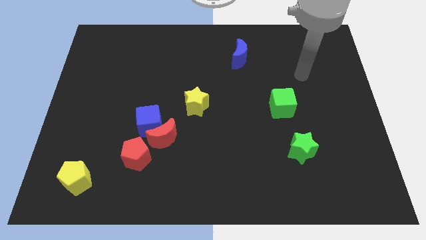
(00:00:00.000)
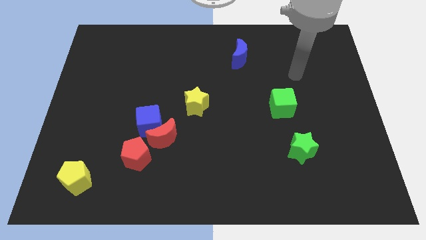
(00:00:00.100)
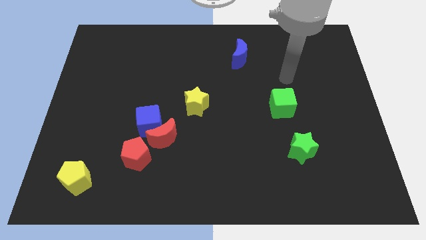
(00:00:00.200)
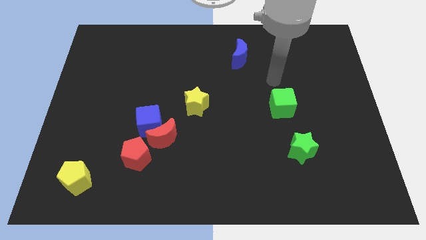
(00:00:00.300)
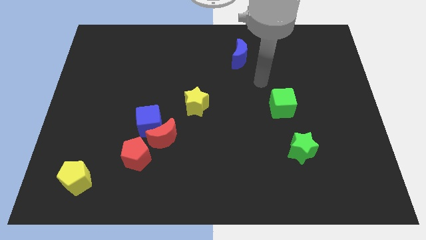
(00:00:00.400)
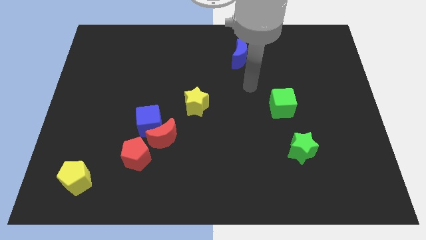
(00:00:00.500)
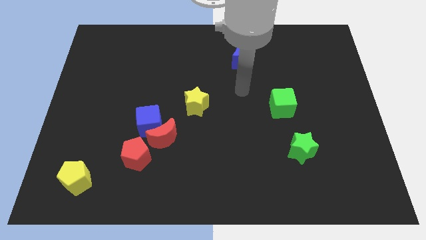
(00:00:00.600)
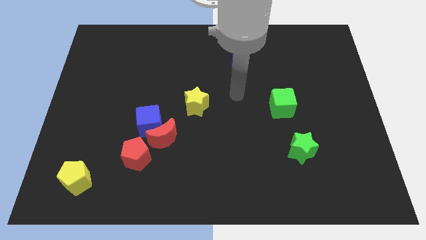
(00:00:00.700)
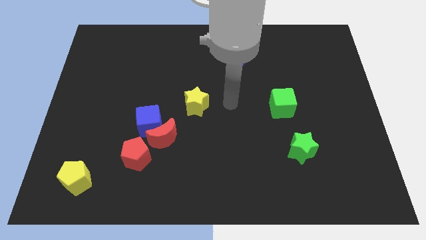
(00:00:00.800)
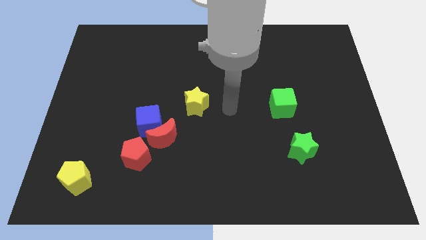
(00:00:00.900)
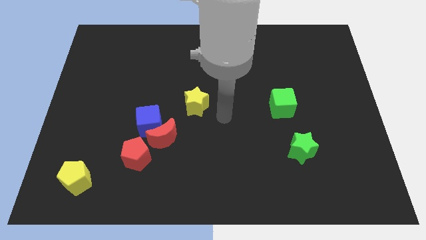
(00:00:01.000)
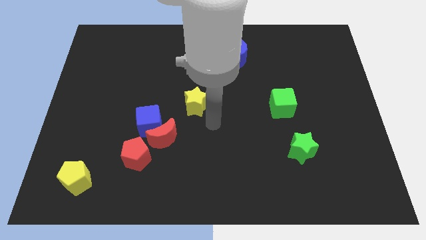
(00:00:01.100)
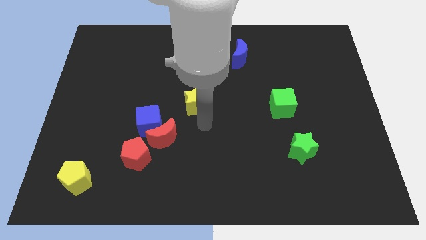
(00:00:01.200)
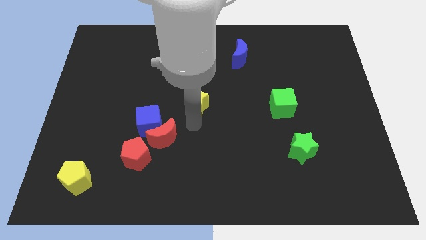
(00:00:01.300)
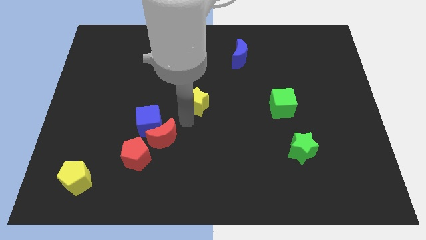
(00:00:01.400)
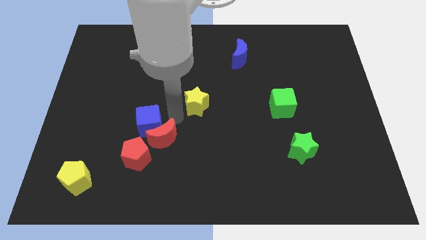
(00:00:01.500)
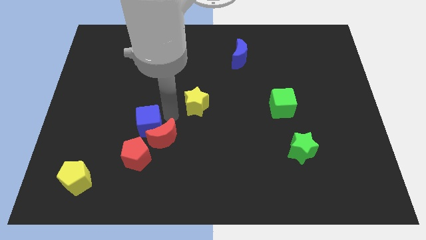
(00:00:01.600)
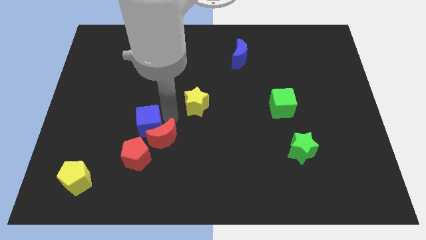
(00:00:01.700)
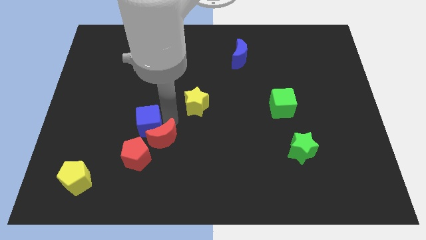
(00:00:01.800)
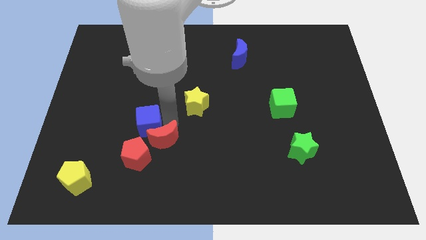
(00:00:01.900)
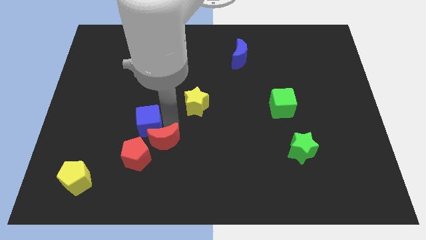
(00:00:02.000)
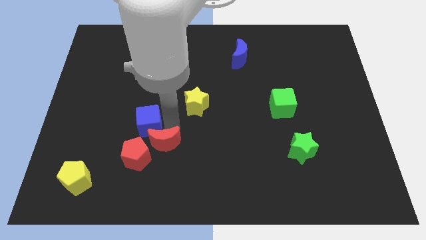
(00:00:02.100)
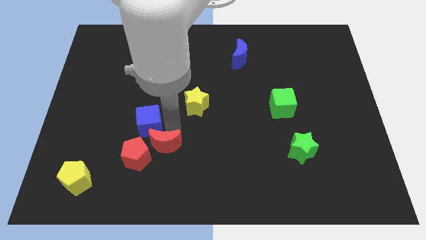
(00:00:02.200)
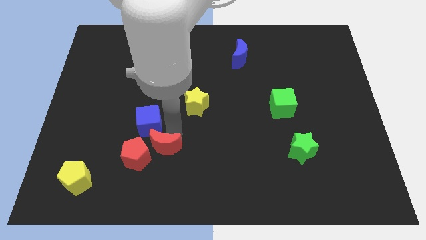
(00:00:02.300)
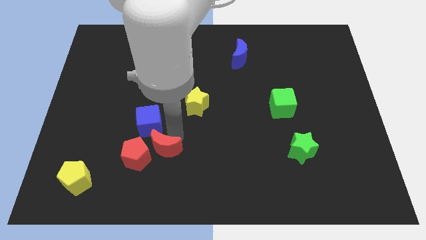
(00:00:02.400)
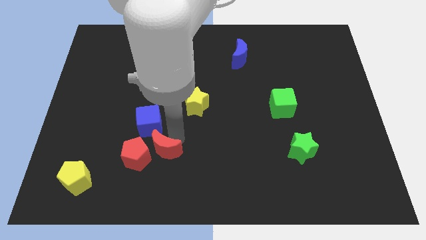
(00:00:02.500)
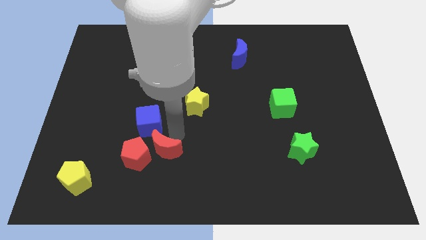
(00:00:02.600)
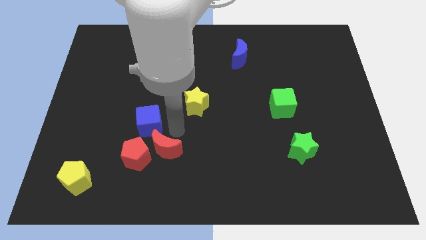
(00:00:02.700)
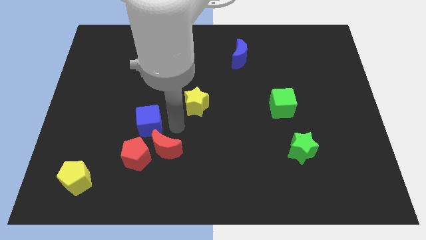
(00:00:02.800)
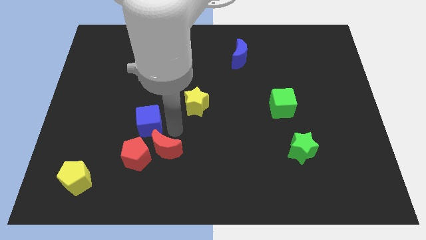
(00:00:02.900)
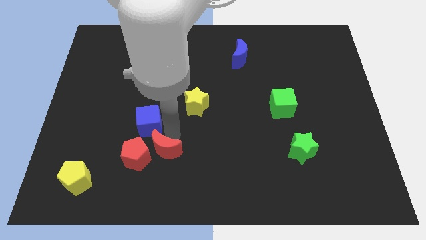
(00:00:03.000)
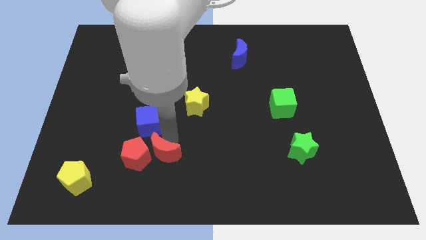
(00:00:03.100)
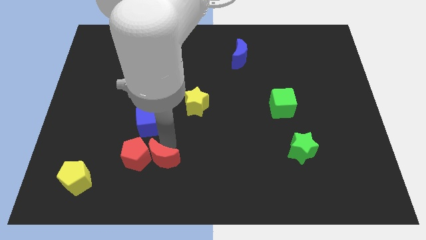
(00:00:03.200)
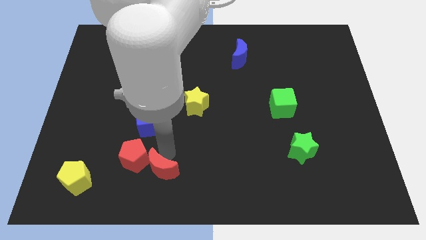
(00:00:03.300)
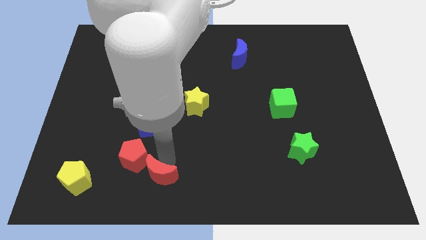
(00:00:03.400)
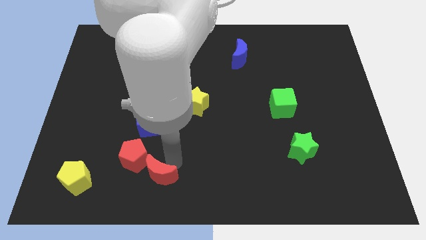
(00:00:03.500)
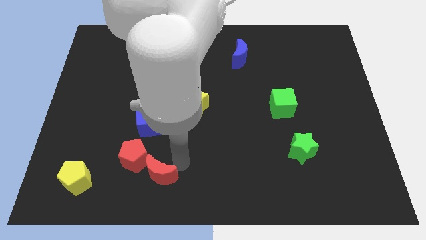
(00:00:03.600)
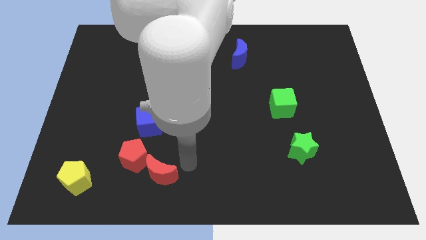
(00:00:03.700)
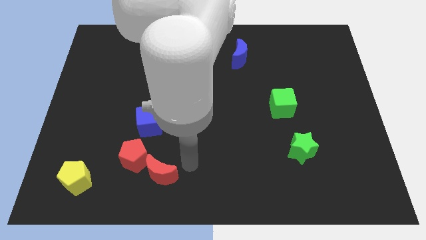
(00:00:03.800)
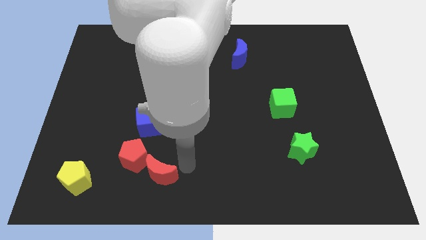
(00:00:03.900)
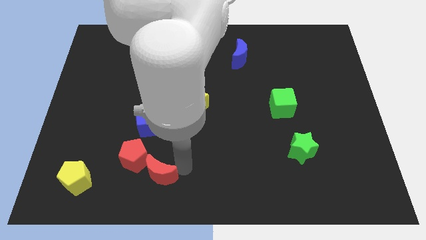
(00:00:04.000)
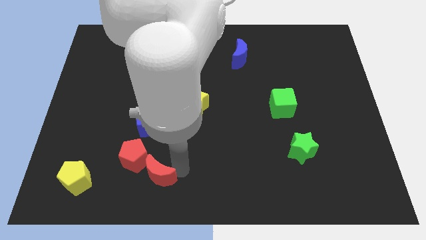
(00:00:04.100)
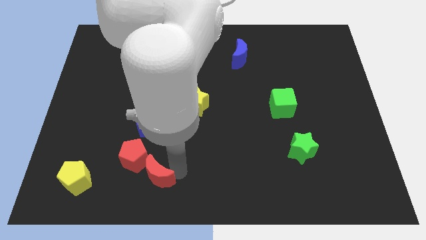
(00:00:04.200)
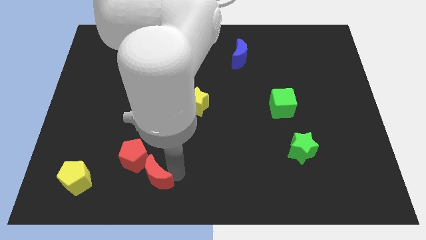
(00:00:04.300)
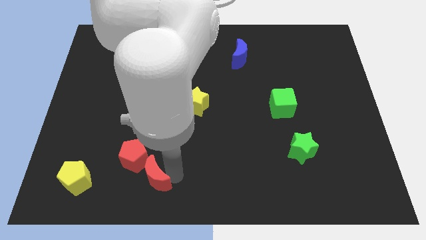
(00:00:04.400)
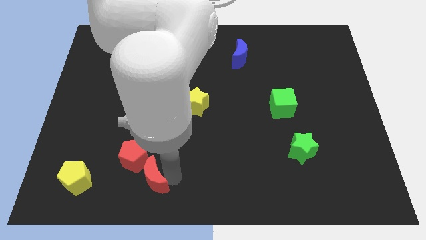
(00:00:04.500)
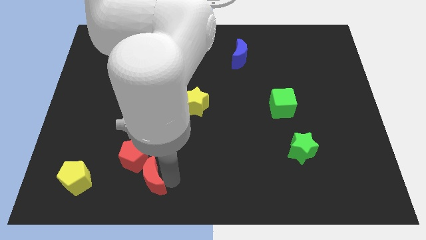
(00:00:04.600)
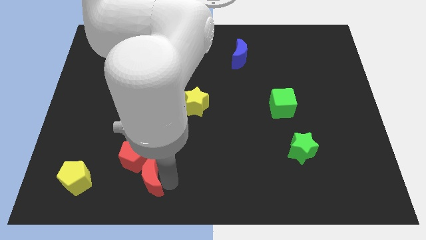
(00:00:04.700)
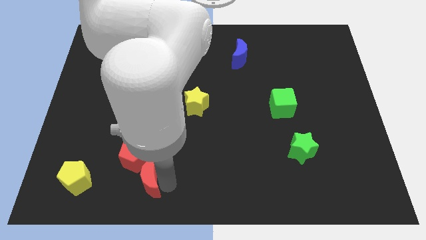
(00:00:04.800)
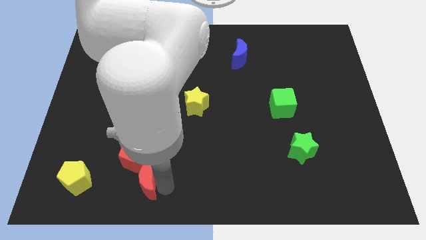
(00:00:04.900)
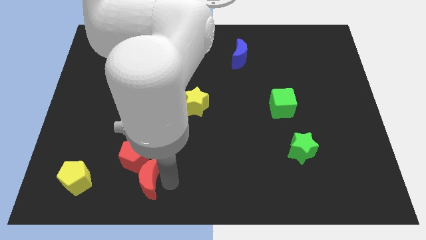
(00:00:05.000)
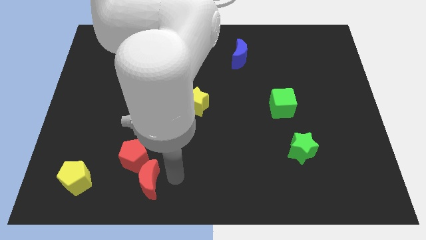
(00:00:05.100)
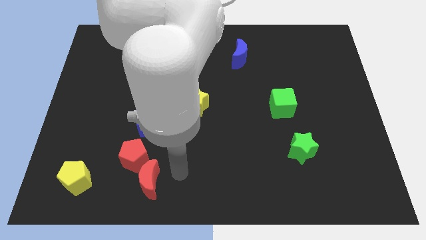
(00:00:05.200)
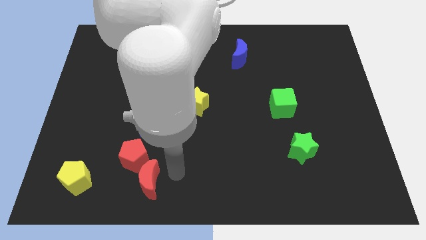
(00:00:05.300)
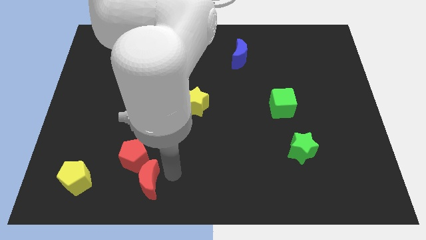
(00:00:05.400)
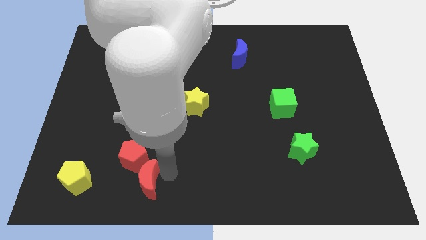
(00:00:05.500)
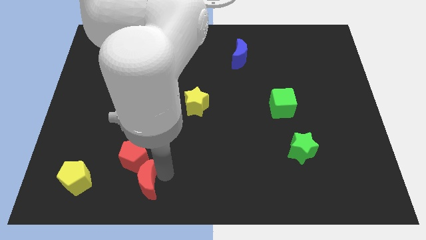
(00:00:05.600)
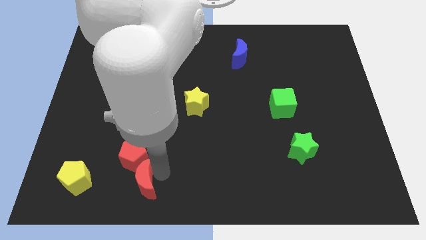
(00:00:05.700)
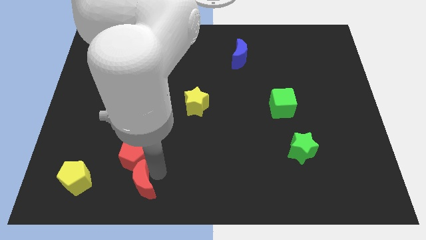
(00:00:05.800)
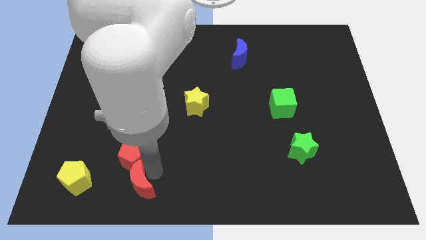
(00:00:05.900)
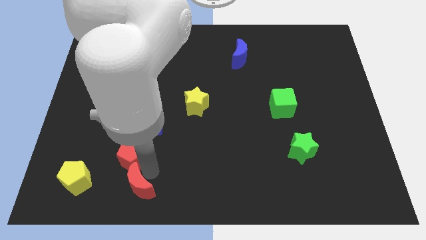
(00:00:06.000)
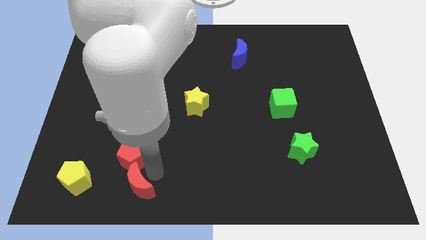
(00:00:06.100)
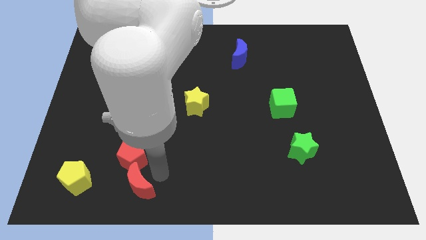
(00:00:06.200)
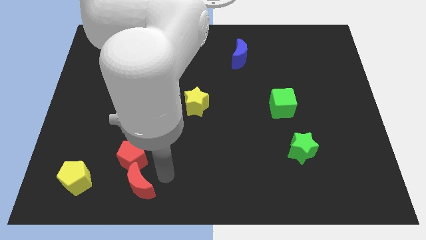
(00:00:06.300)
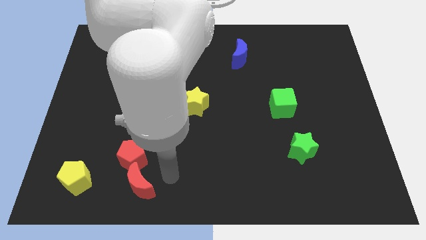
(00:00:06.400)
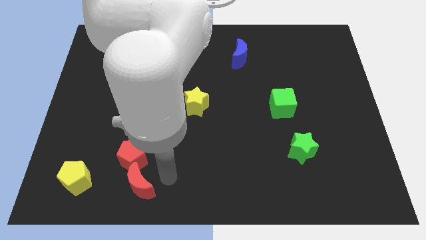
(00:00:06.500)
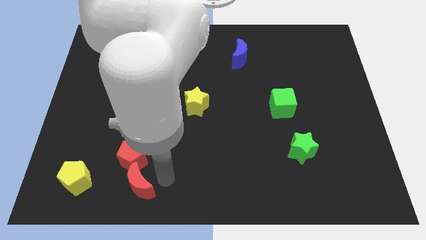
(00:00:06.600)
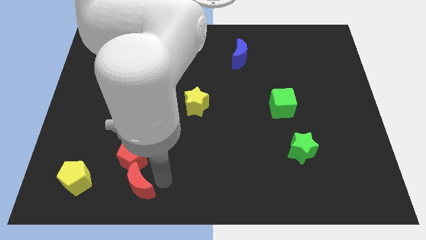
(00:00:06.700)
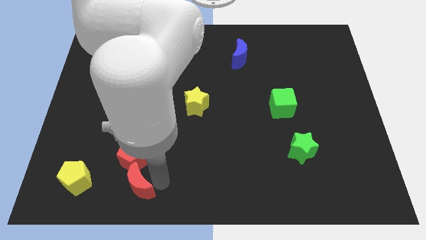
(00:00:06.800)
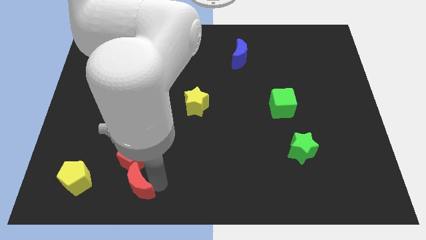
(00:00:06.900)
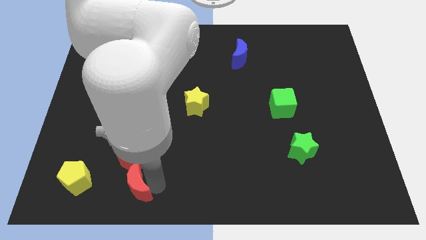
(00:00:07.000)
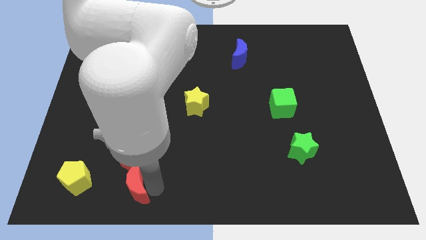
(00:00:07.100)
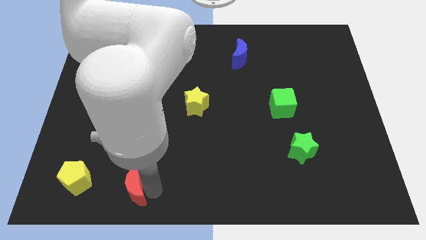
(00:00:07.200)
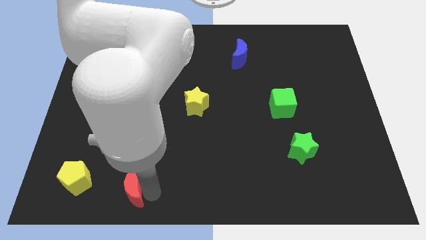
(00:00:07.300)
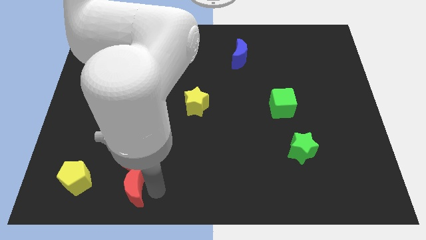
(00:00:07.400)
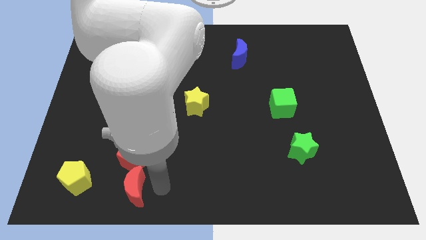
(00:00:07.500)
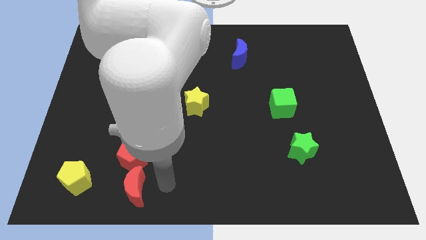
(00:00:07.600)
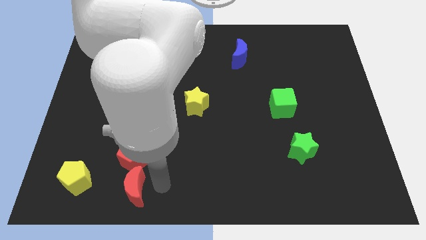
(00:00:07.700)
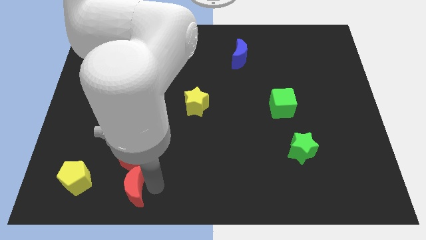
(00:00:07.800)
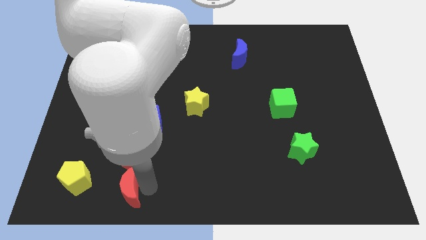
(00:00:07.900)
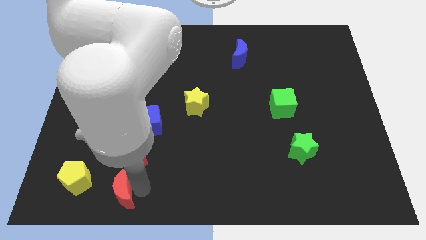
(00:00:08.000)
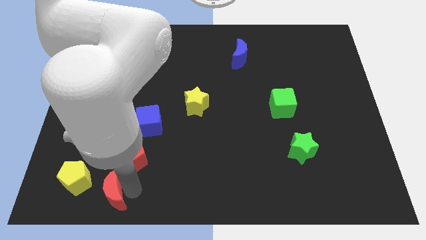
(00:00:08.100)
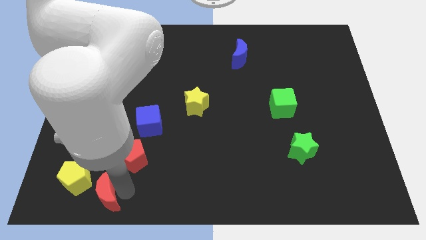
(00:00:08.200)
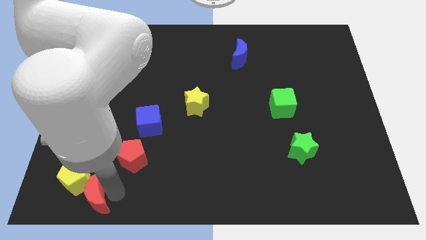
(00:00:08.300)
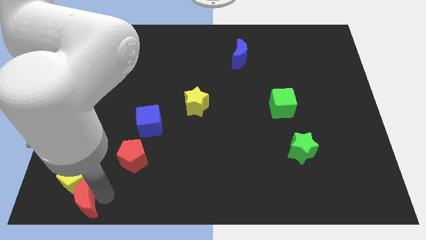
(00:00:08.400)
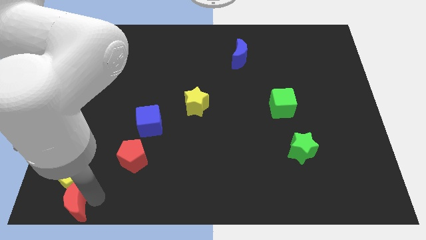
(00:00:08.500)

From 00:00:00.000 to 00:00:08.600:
move the red moon to the bottom left corner
